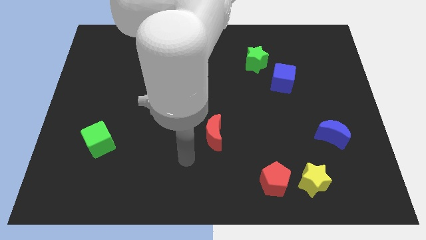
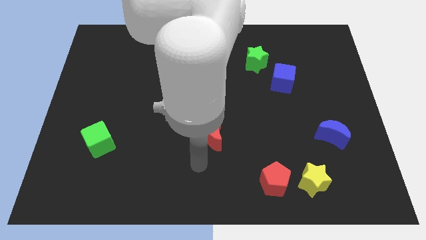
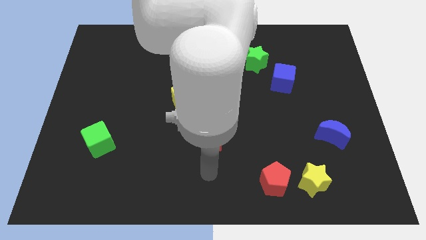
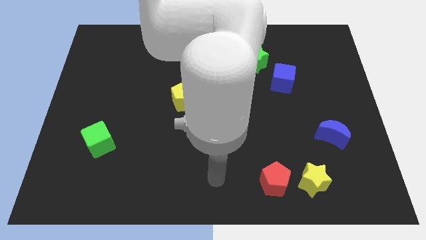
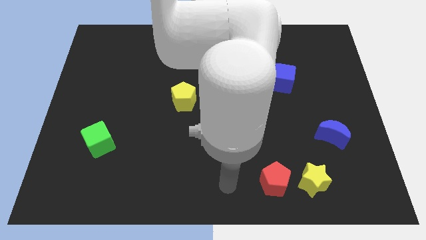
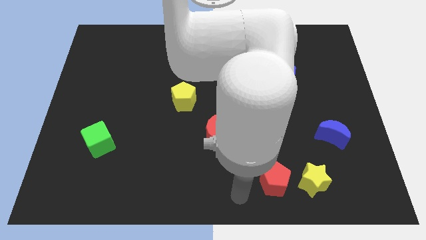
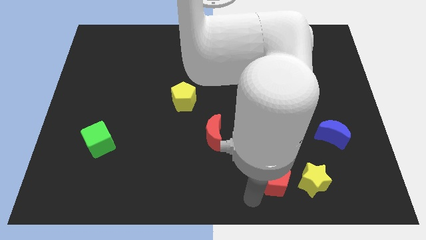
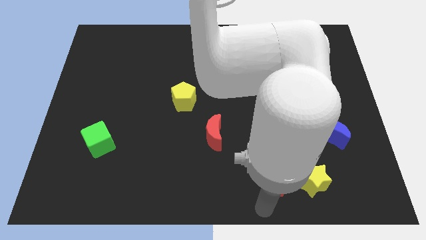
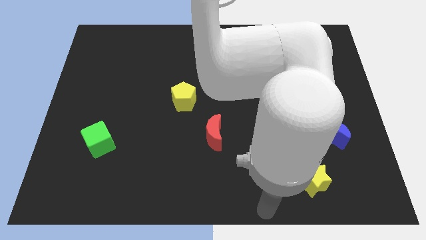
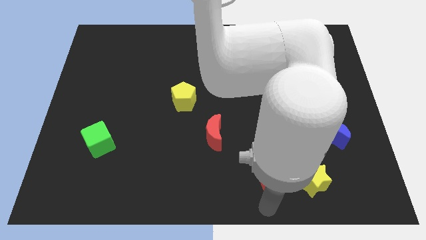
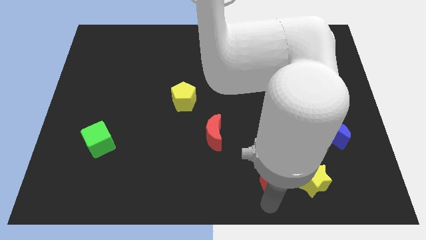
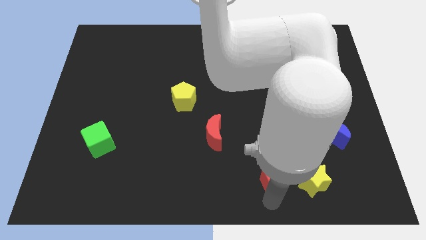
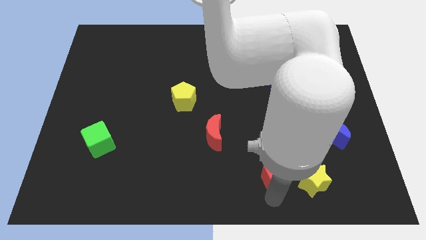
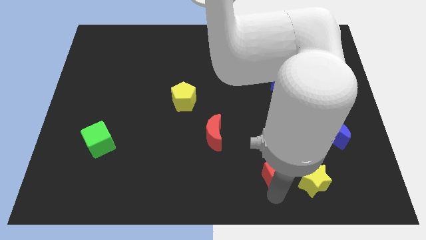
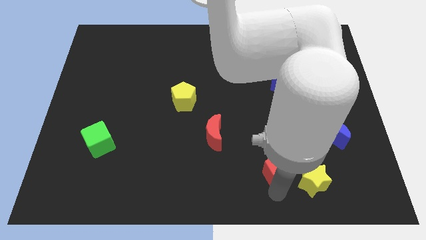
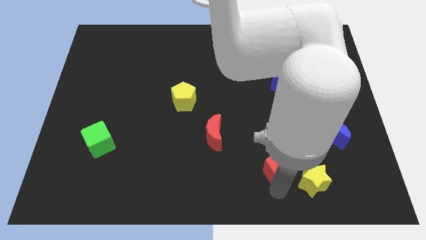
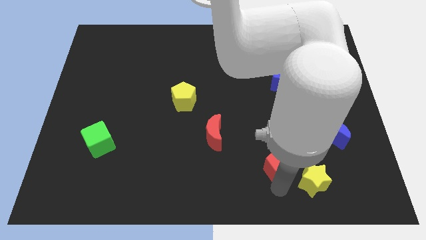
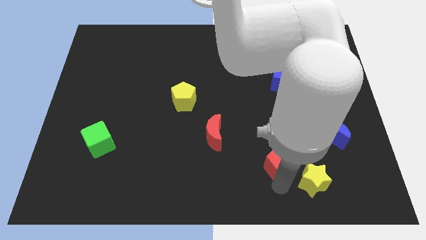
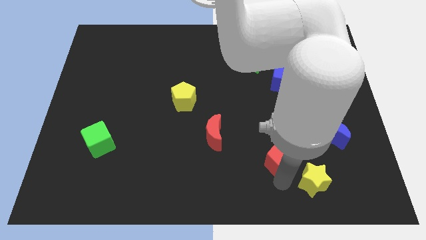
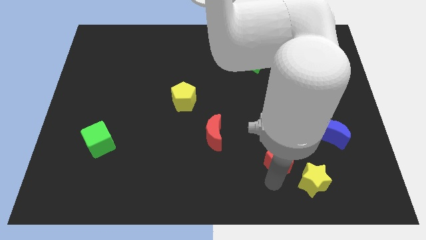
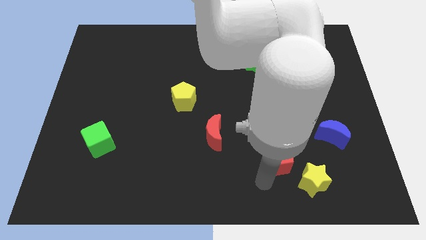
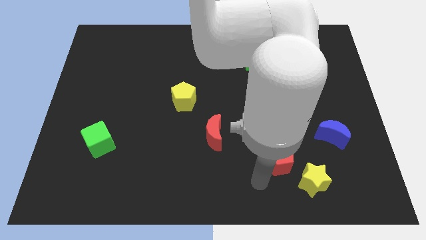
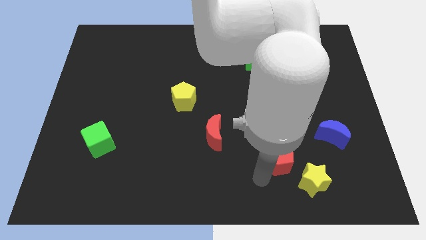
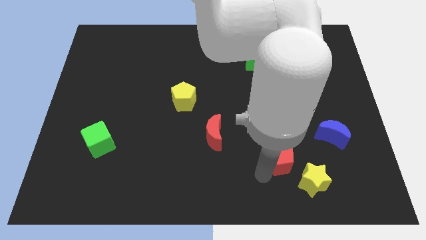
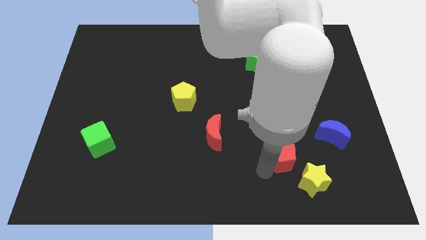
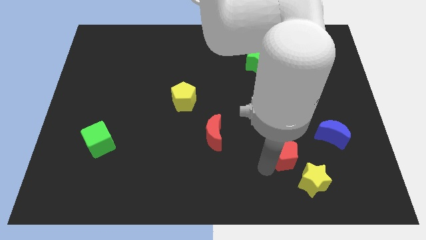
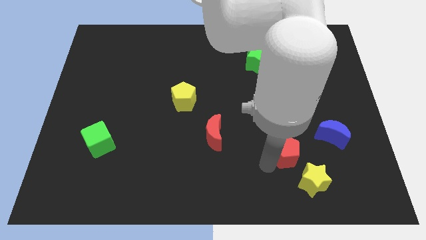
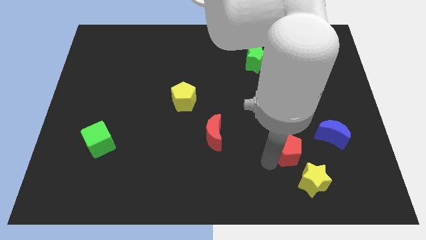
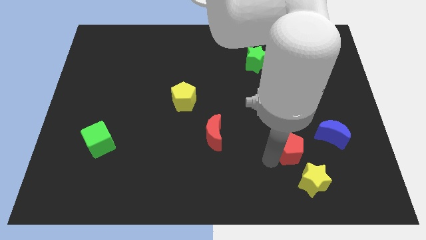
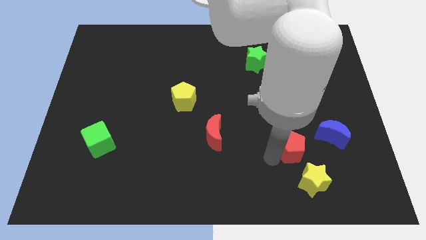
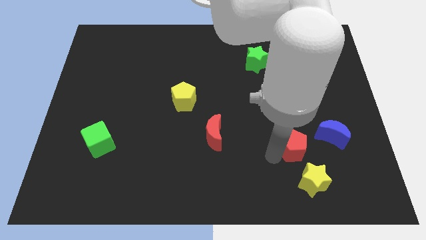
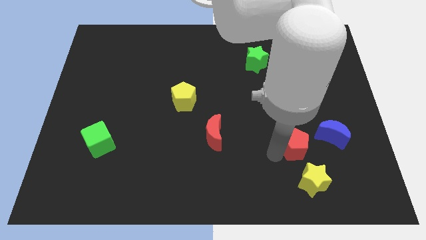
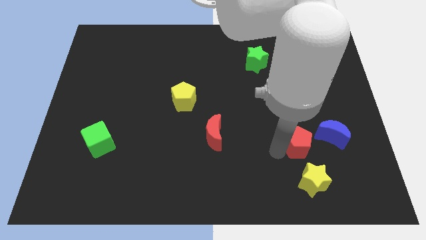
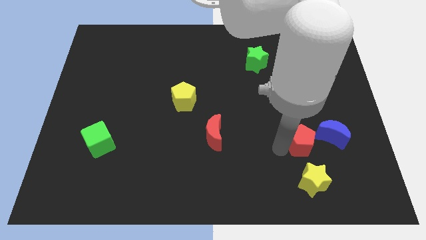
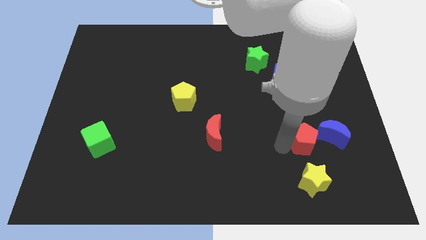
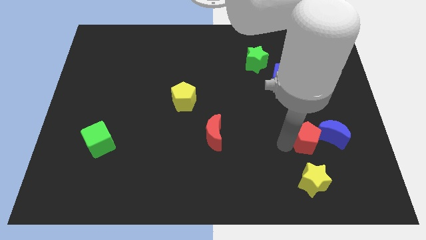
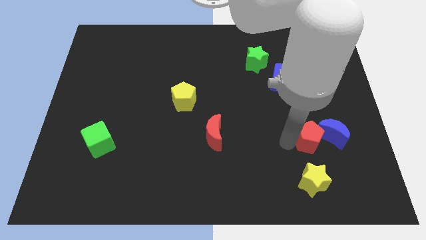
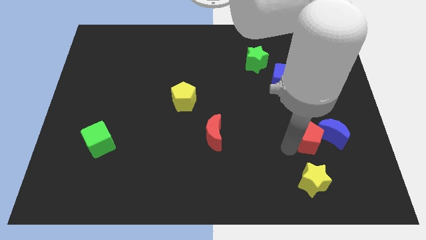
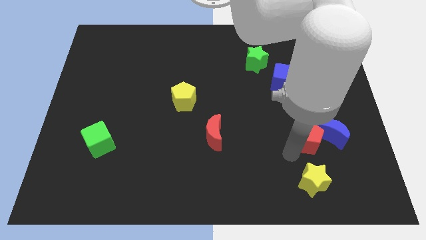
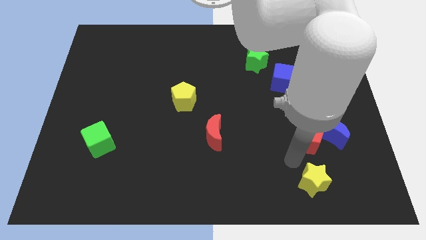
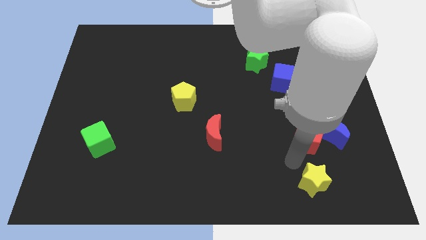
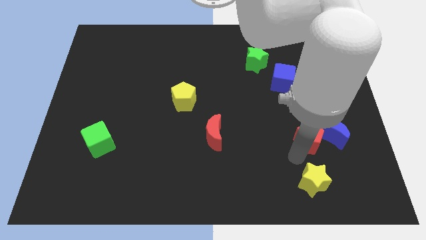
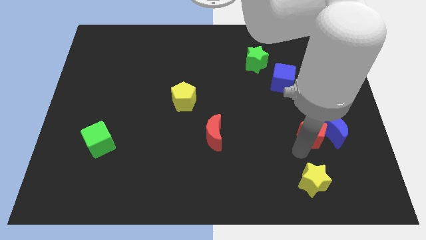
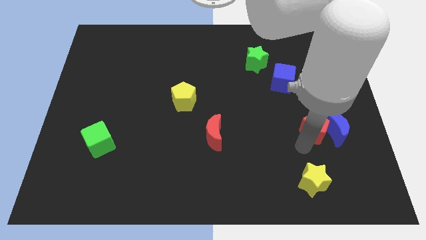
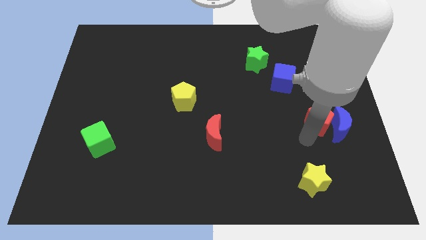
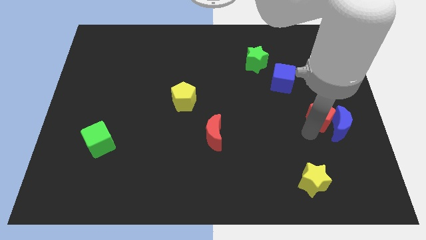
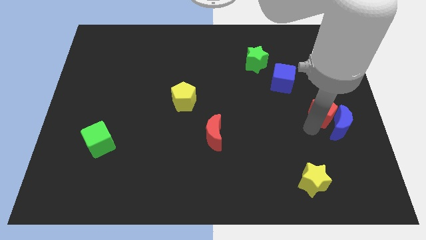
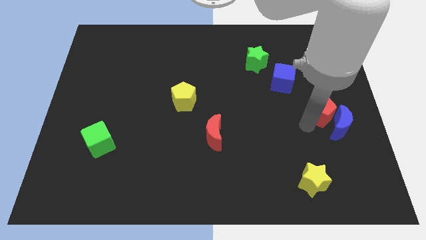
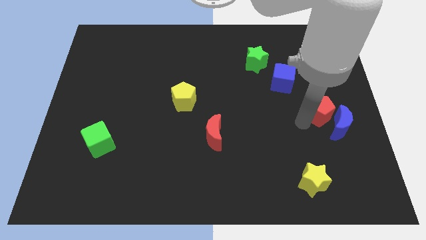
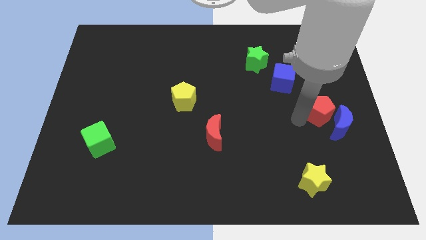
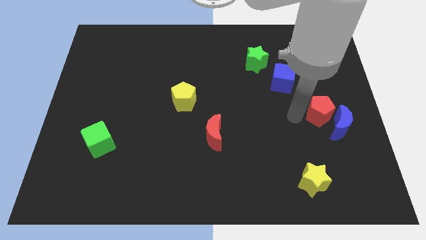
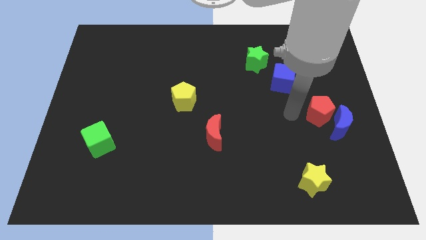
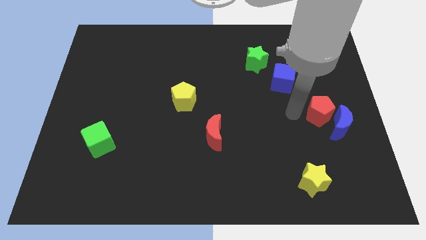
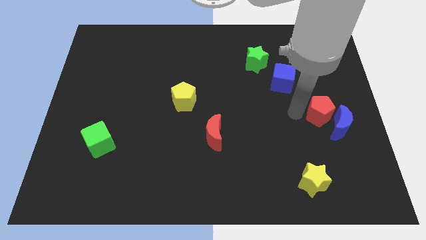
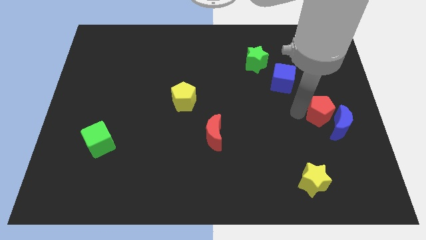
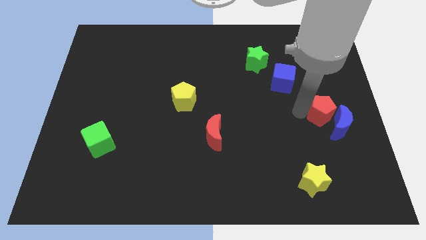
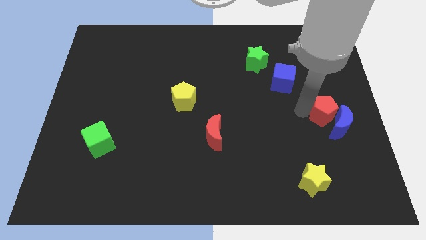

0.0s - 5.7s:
move the red pentagon to the right side
